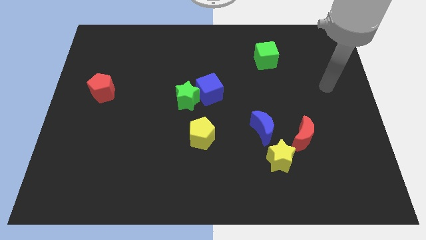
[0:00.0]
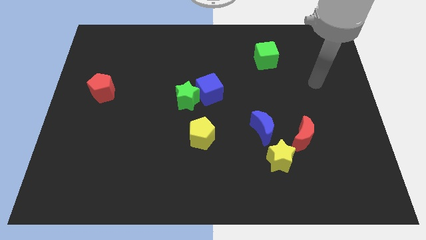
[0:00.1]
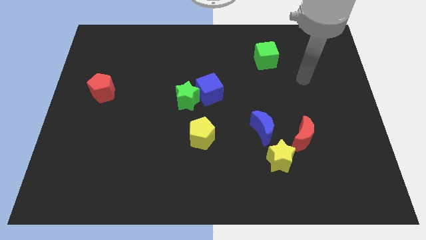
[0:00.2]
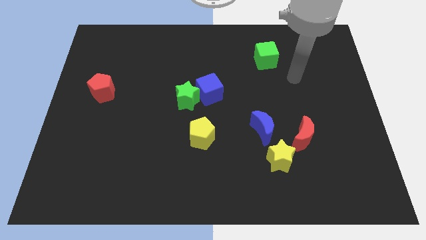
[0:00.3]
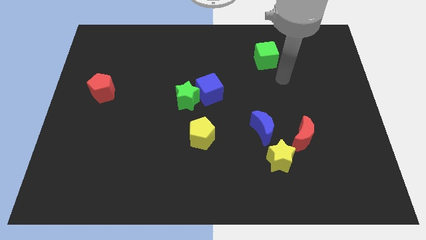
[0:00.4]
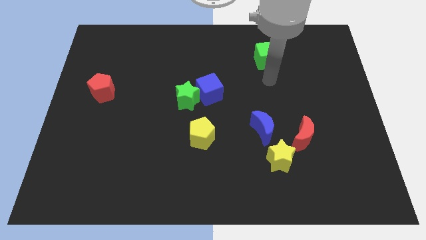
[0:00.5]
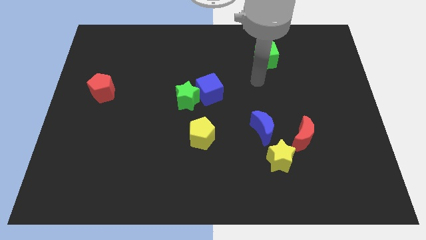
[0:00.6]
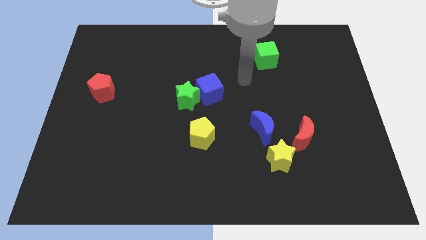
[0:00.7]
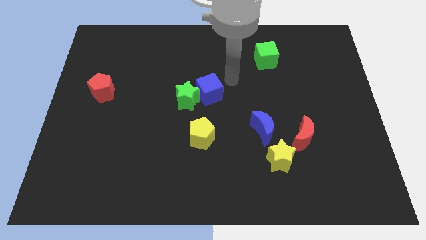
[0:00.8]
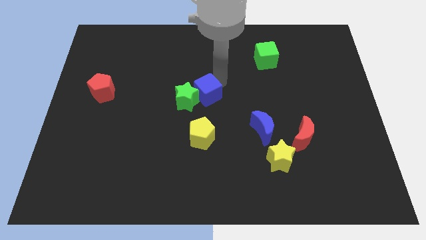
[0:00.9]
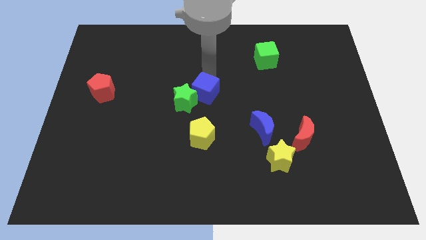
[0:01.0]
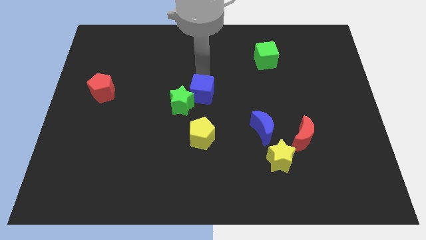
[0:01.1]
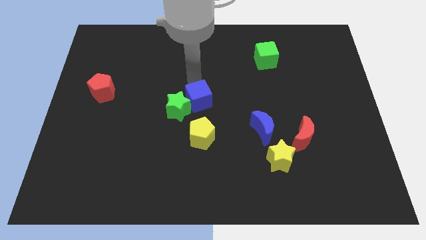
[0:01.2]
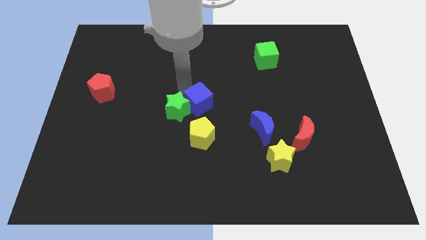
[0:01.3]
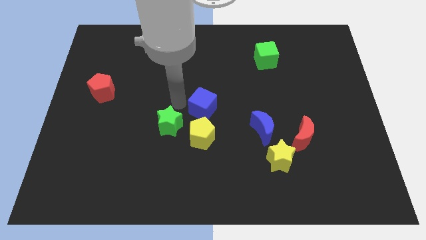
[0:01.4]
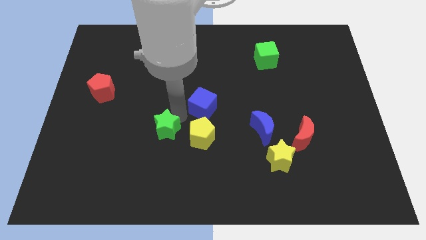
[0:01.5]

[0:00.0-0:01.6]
pull the blue cube apart from the green star

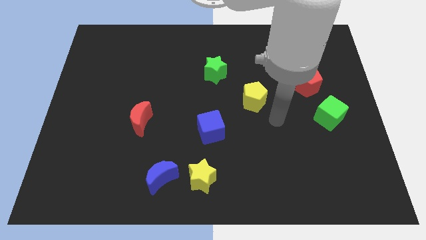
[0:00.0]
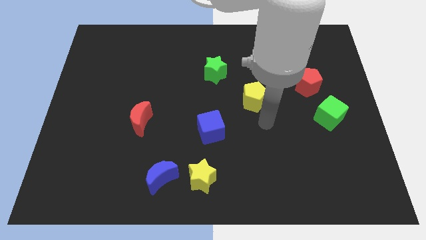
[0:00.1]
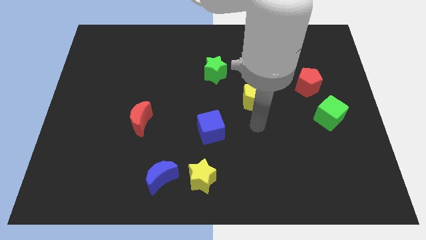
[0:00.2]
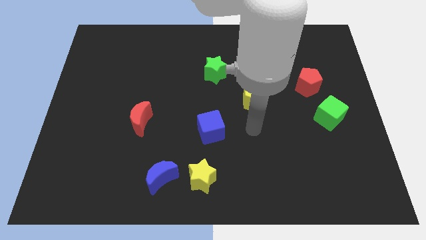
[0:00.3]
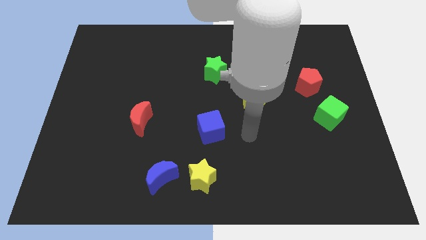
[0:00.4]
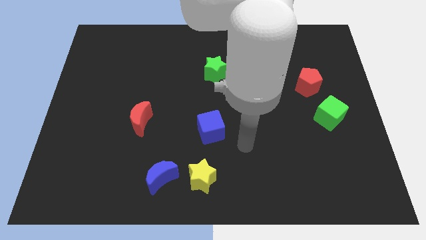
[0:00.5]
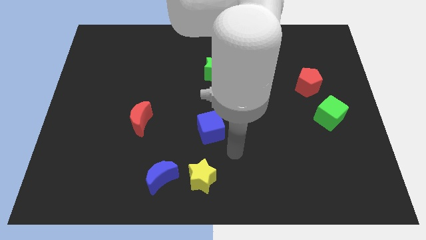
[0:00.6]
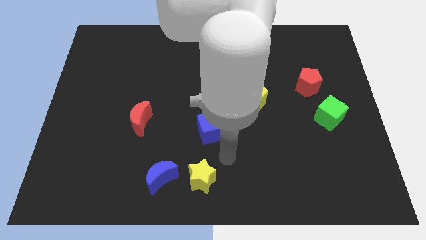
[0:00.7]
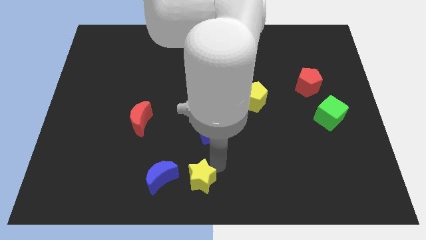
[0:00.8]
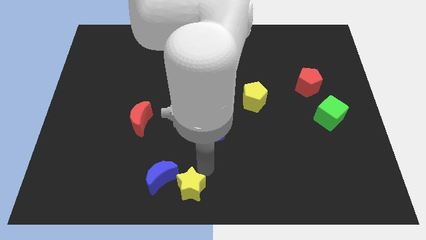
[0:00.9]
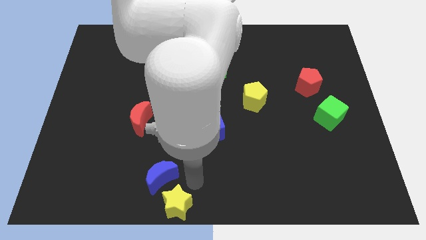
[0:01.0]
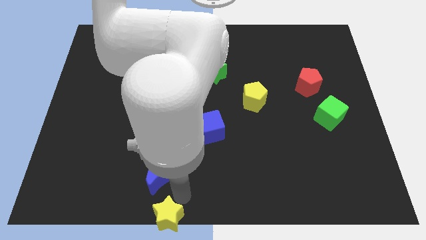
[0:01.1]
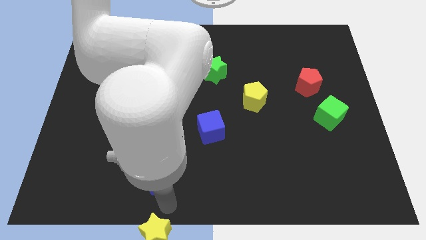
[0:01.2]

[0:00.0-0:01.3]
separate the blue moon from the yellow star

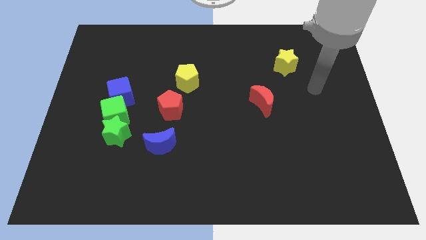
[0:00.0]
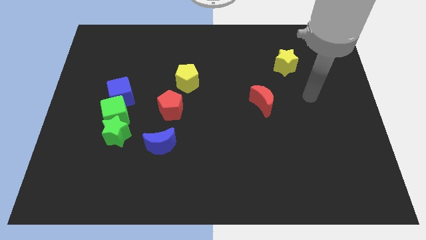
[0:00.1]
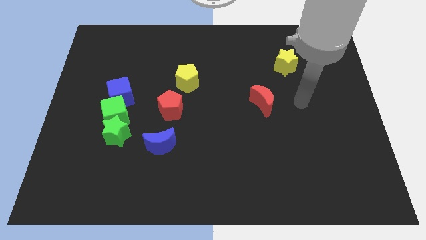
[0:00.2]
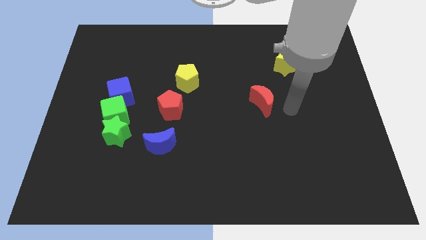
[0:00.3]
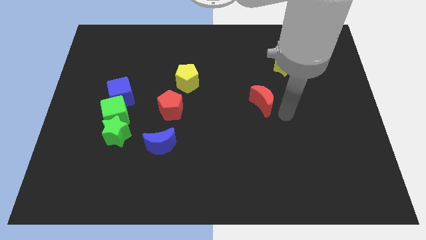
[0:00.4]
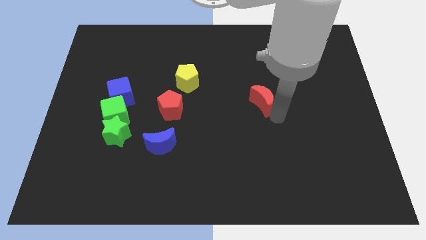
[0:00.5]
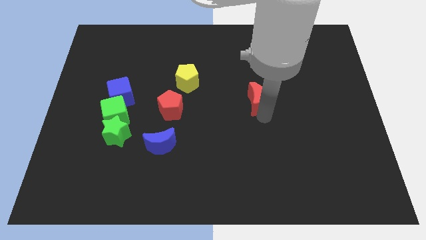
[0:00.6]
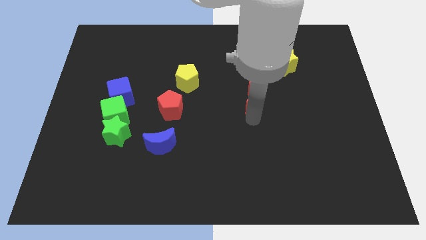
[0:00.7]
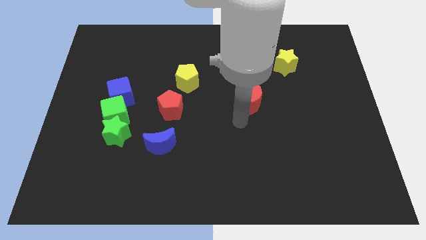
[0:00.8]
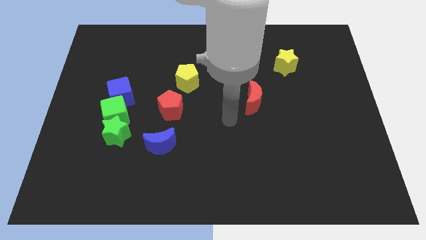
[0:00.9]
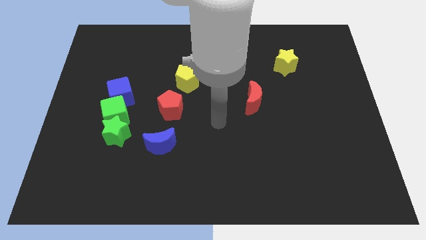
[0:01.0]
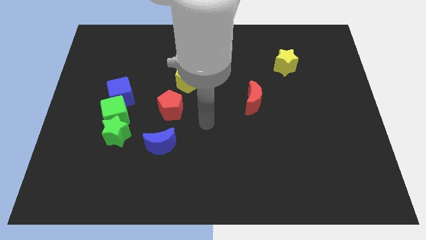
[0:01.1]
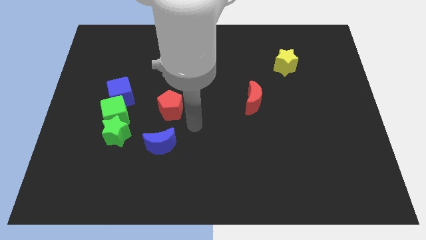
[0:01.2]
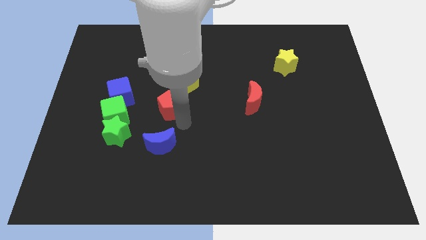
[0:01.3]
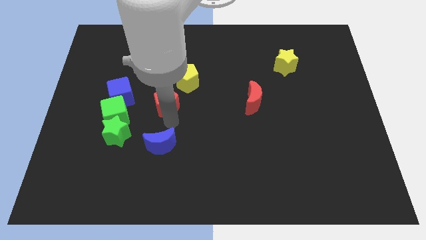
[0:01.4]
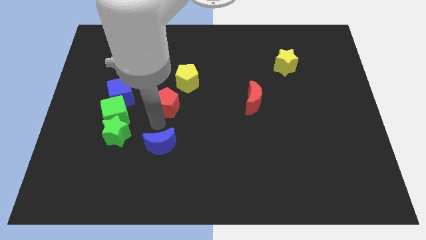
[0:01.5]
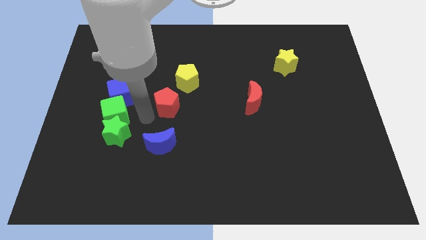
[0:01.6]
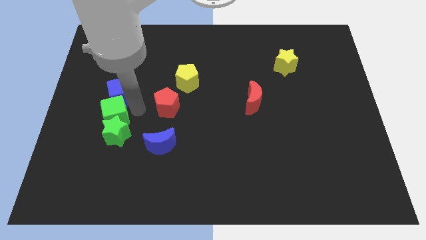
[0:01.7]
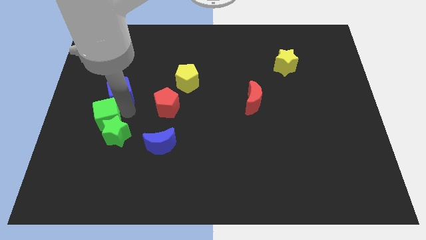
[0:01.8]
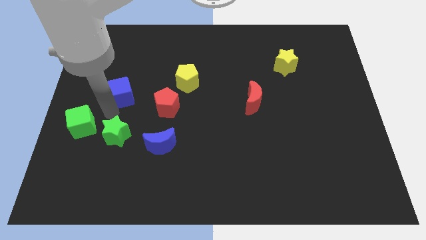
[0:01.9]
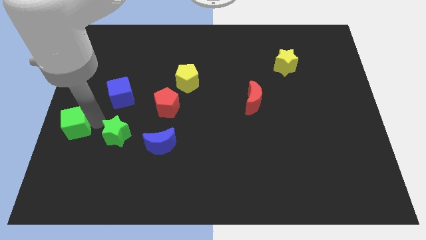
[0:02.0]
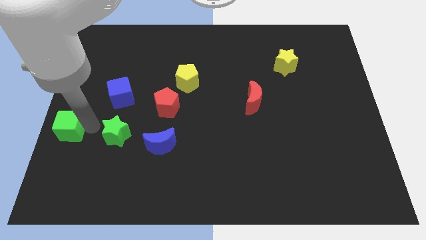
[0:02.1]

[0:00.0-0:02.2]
pull the green star apart from the green cube

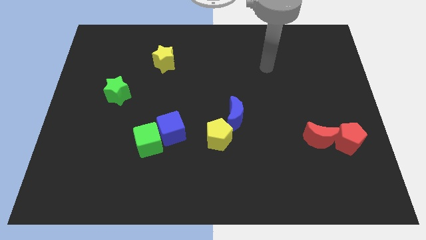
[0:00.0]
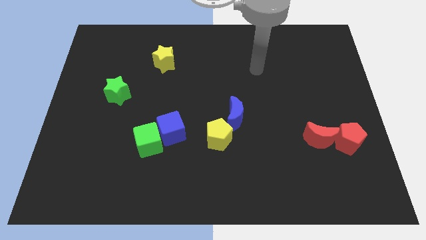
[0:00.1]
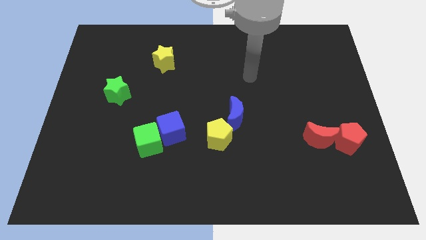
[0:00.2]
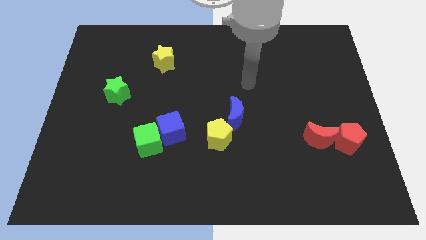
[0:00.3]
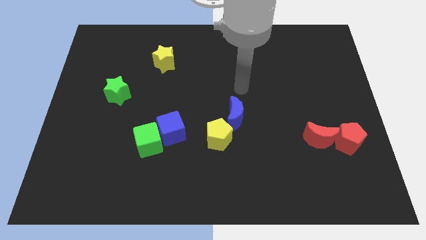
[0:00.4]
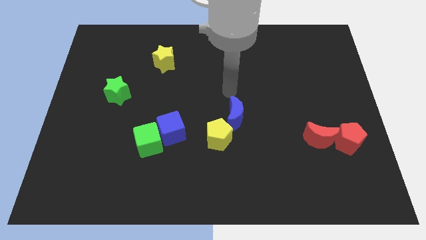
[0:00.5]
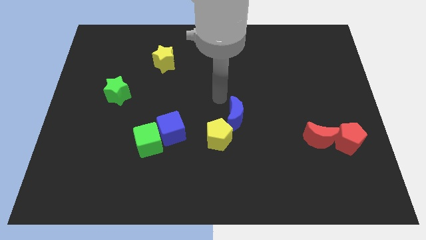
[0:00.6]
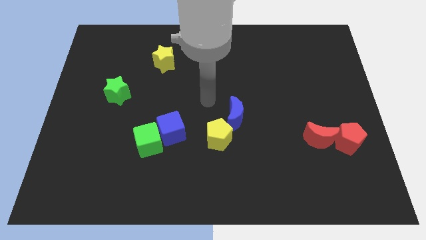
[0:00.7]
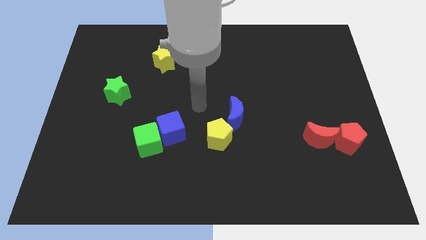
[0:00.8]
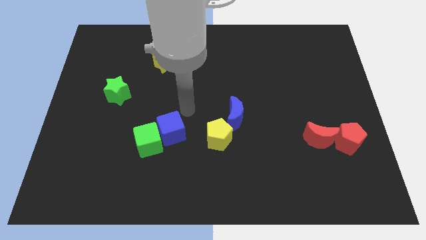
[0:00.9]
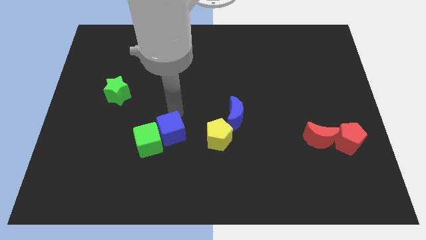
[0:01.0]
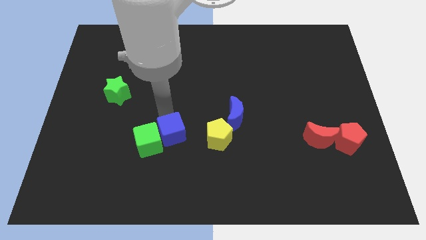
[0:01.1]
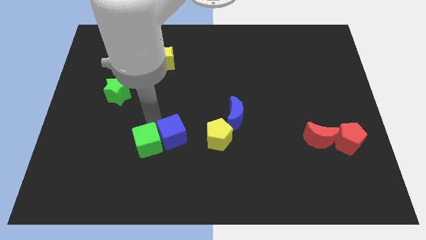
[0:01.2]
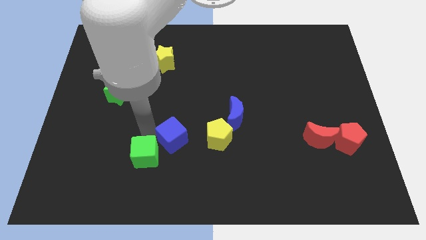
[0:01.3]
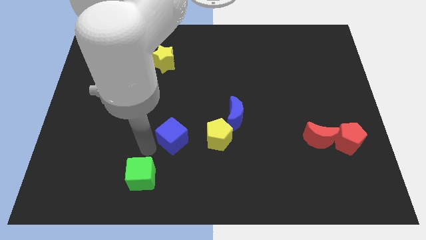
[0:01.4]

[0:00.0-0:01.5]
pull the blue cube apart from the green cube

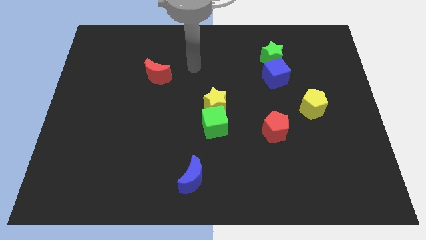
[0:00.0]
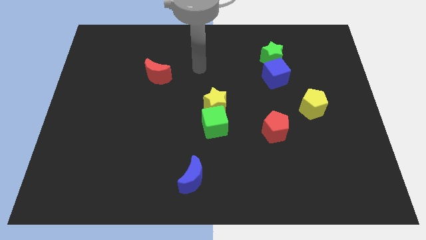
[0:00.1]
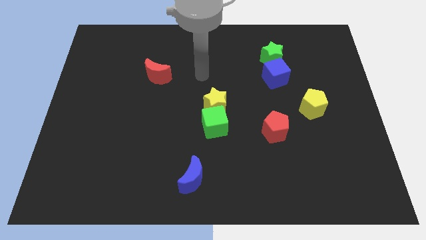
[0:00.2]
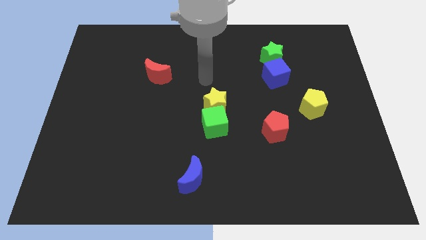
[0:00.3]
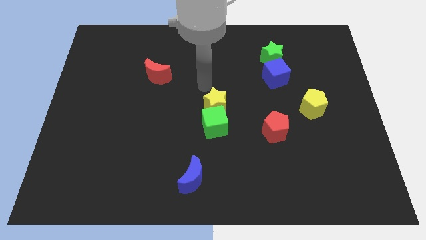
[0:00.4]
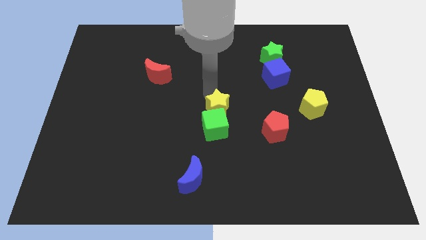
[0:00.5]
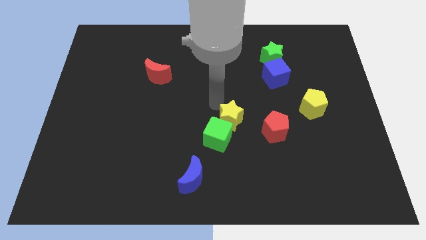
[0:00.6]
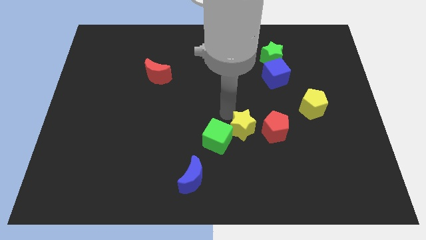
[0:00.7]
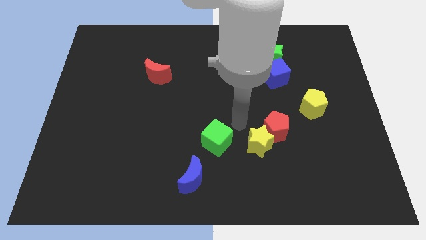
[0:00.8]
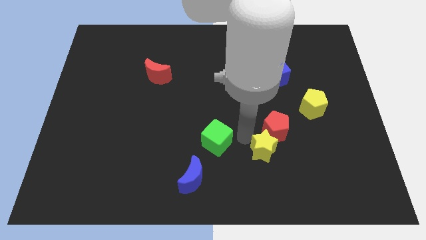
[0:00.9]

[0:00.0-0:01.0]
separate the green cube from the yellow star

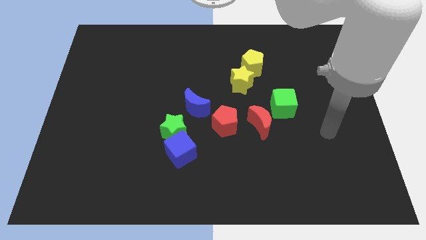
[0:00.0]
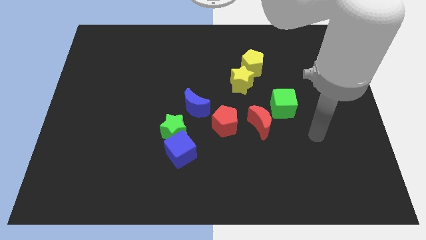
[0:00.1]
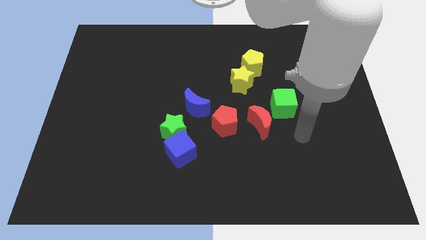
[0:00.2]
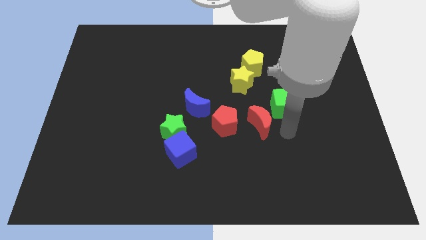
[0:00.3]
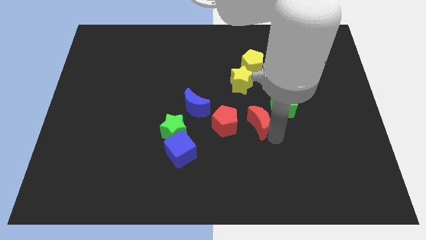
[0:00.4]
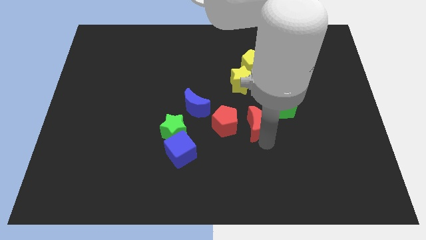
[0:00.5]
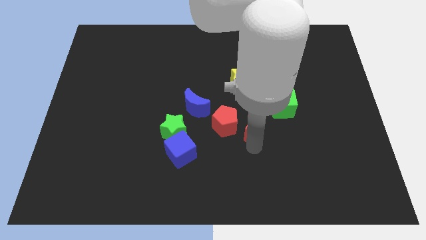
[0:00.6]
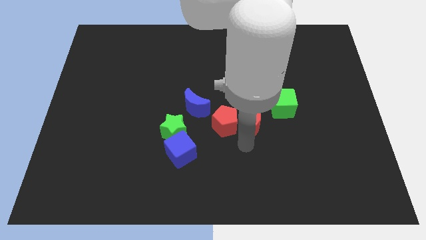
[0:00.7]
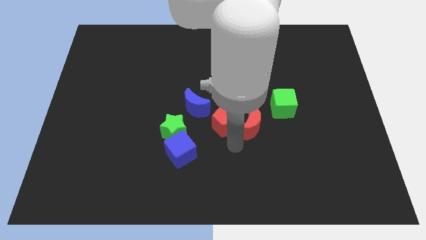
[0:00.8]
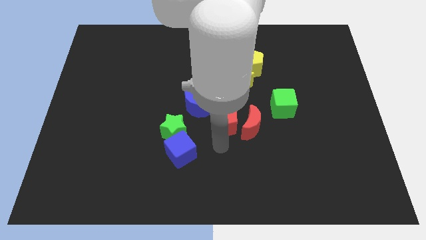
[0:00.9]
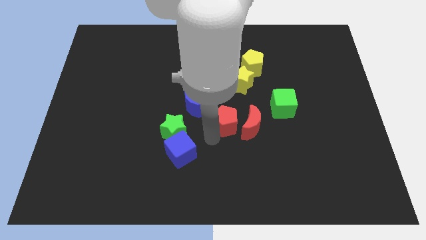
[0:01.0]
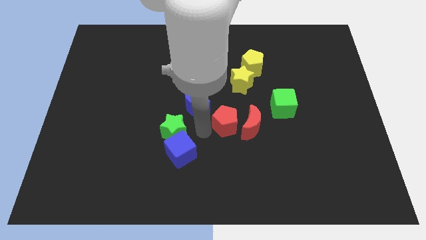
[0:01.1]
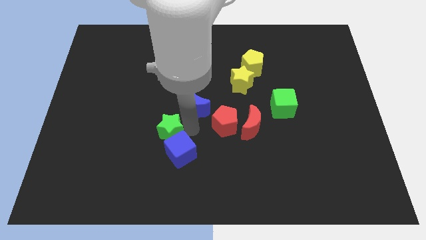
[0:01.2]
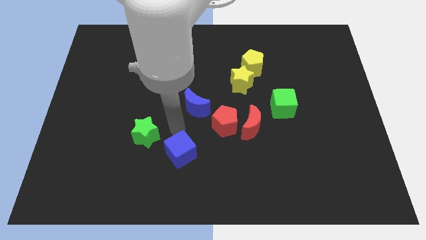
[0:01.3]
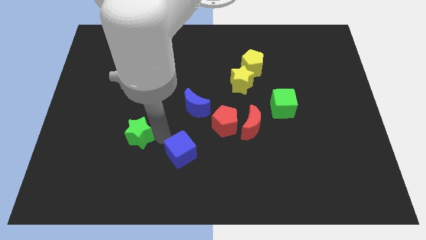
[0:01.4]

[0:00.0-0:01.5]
separate the blue cube from the green star

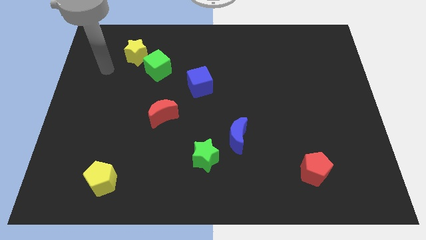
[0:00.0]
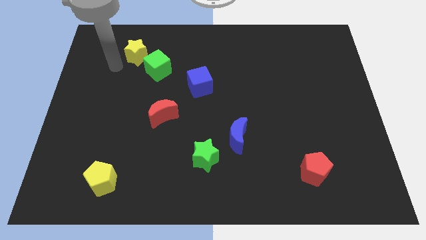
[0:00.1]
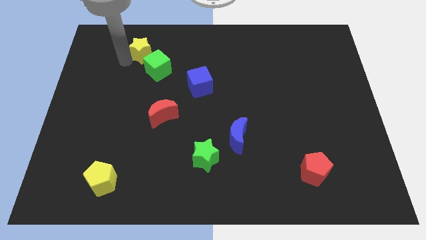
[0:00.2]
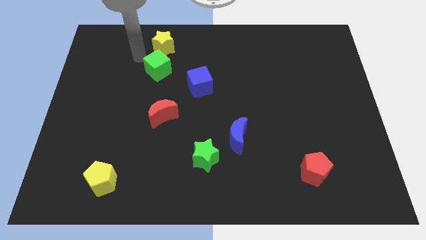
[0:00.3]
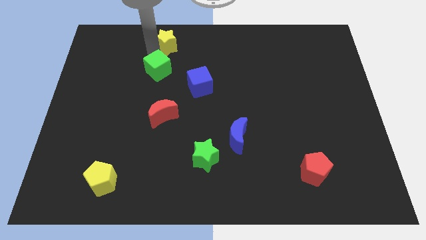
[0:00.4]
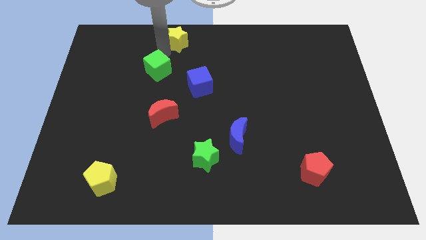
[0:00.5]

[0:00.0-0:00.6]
move the green cube away from the yellow star
